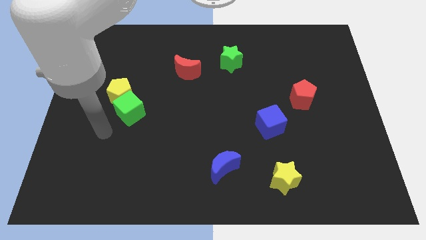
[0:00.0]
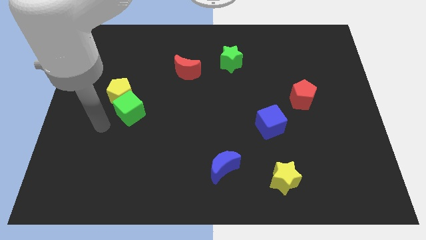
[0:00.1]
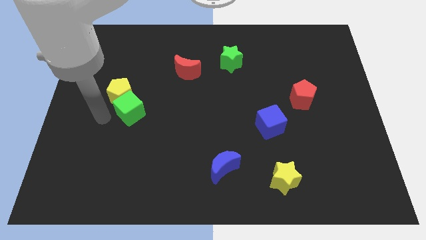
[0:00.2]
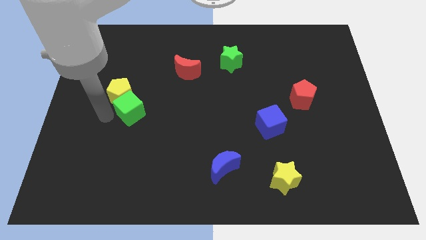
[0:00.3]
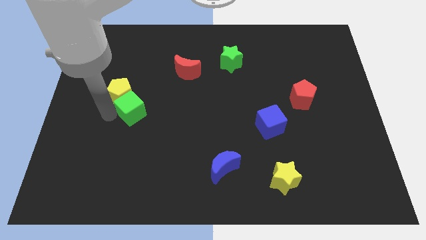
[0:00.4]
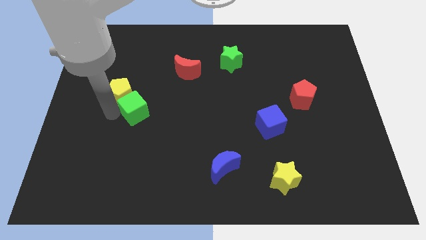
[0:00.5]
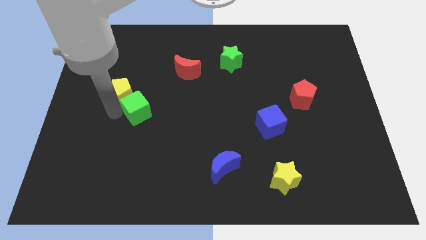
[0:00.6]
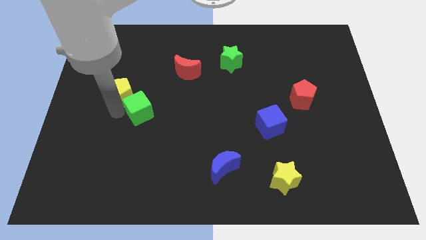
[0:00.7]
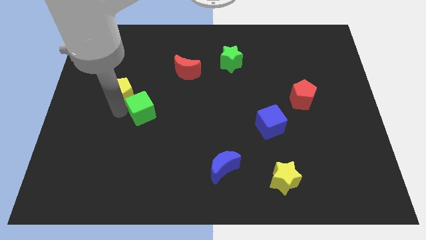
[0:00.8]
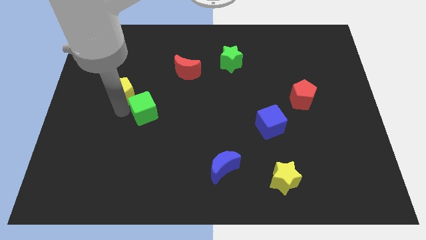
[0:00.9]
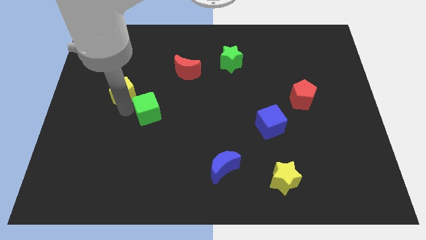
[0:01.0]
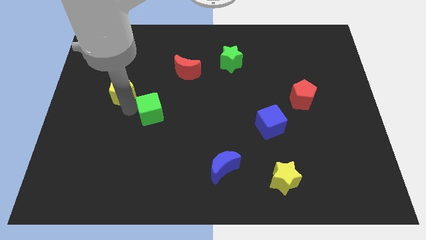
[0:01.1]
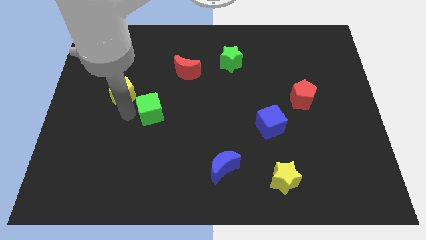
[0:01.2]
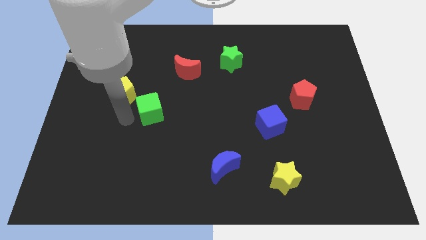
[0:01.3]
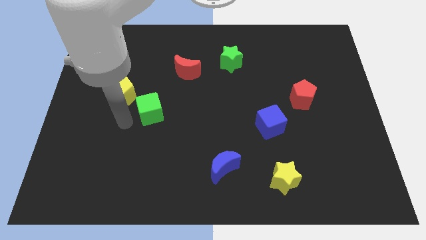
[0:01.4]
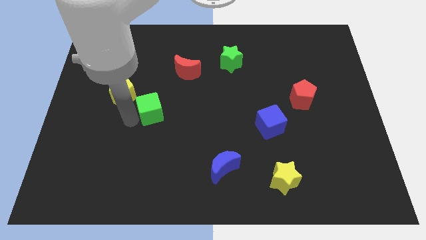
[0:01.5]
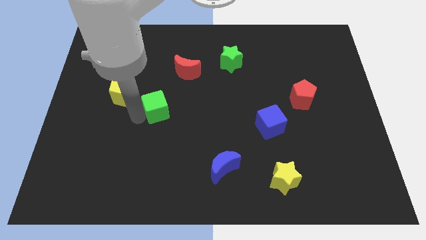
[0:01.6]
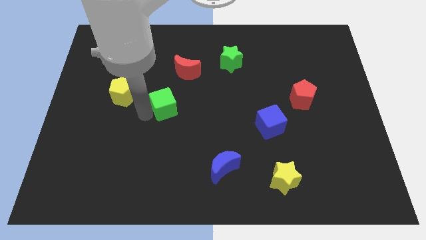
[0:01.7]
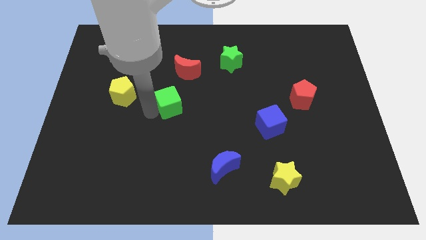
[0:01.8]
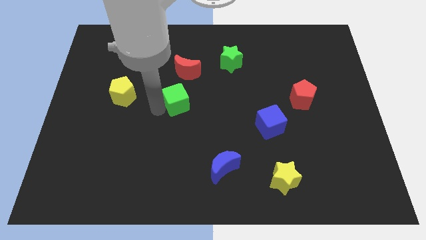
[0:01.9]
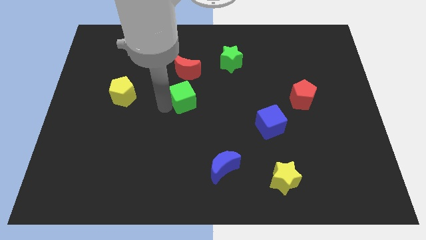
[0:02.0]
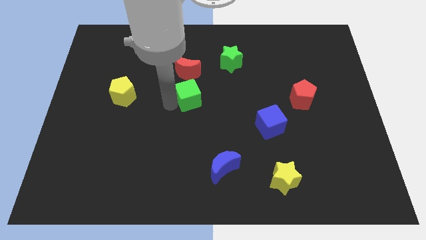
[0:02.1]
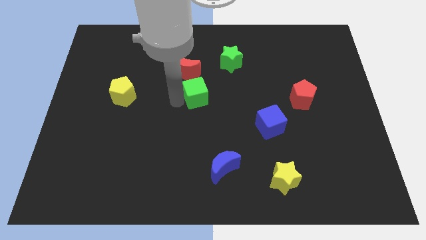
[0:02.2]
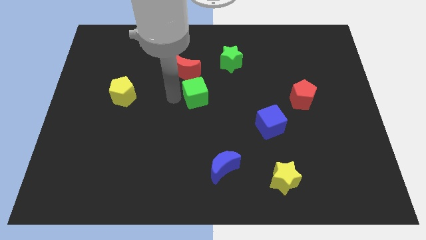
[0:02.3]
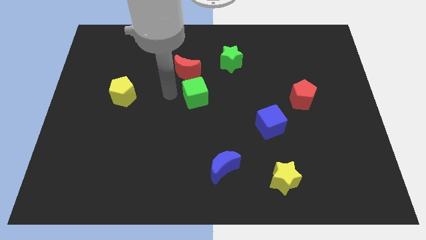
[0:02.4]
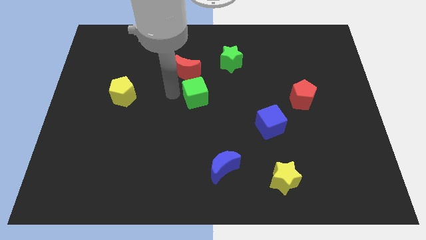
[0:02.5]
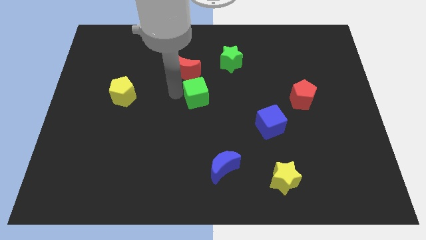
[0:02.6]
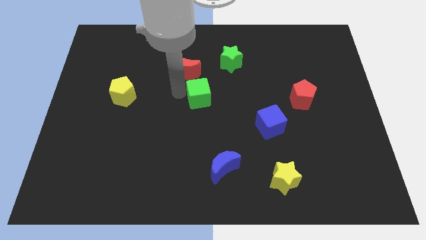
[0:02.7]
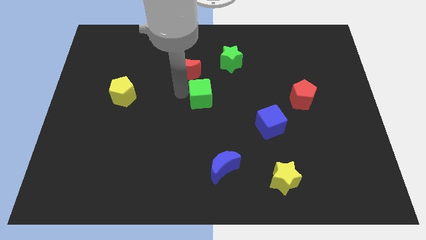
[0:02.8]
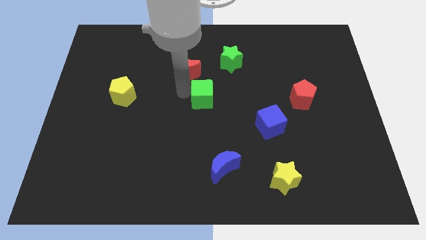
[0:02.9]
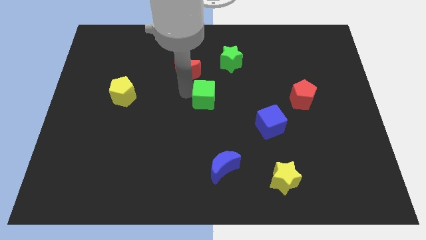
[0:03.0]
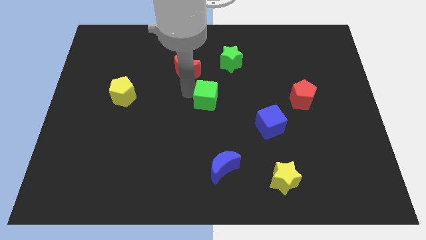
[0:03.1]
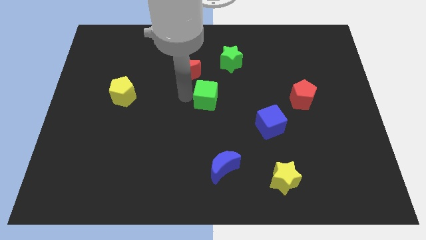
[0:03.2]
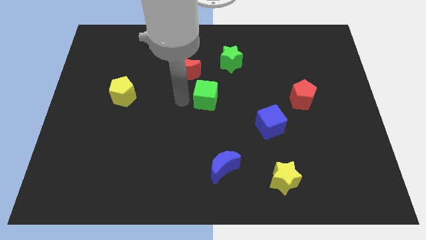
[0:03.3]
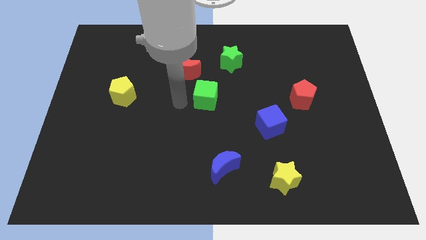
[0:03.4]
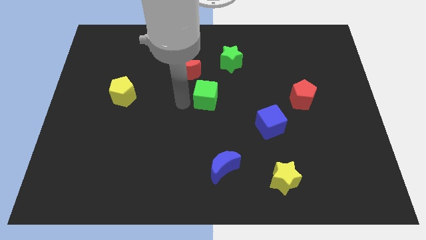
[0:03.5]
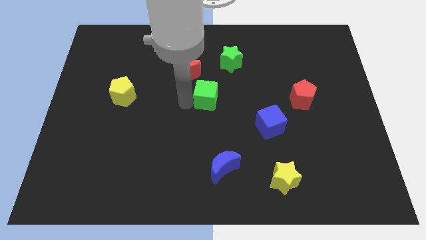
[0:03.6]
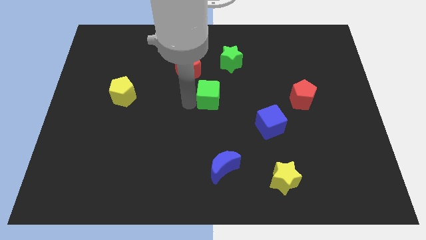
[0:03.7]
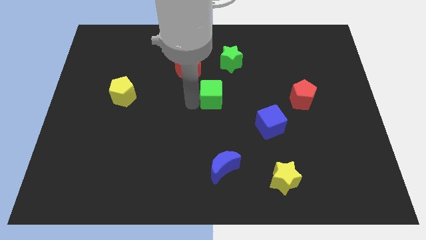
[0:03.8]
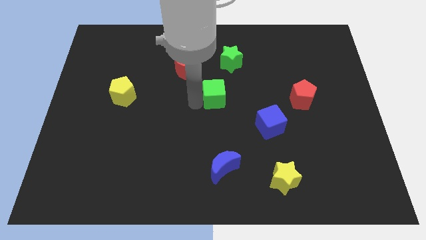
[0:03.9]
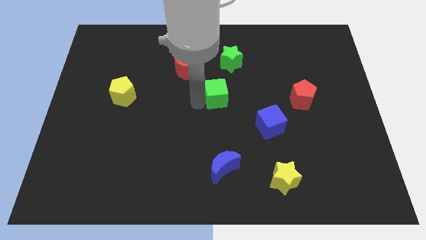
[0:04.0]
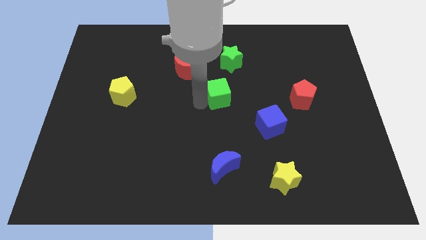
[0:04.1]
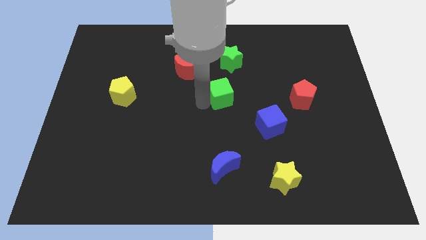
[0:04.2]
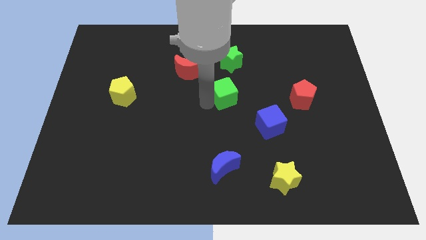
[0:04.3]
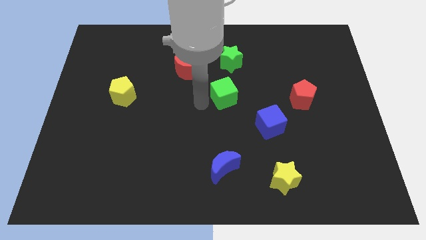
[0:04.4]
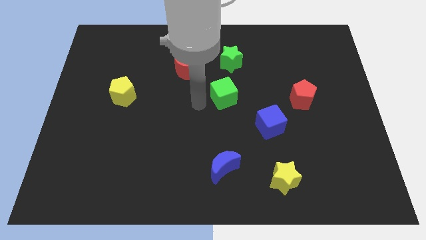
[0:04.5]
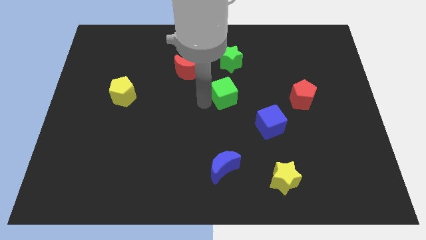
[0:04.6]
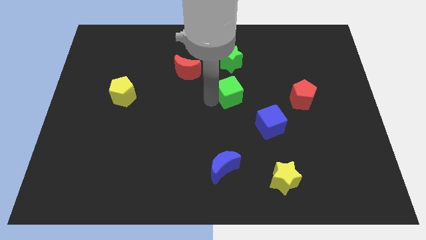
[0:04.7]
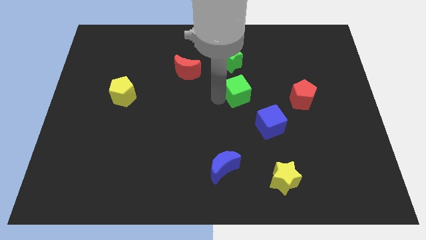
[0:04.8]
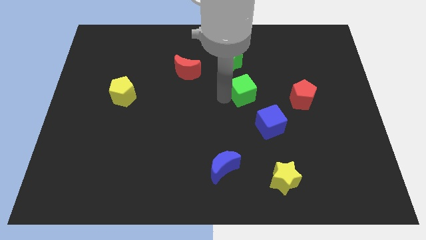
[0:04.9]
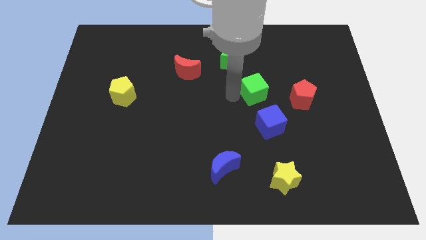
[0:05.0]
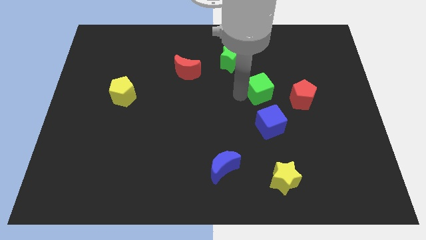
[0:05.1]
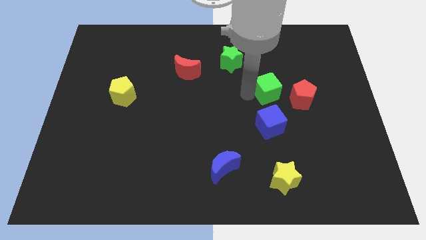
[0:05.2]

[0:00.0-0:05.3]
slide the green cube diagonally up and to the left of the red pentagon

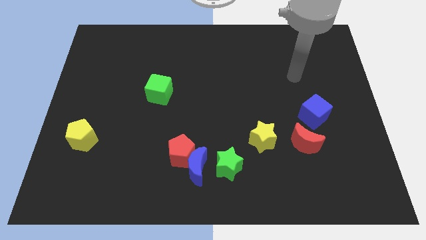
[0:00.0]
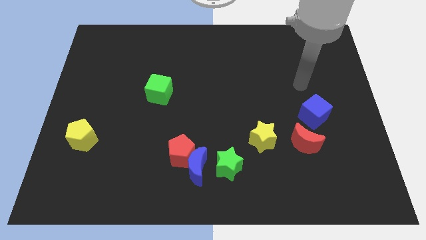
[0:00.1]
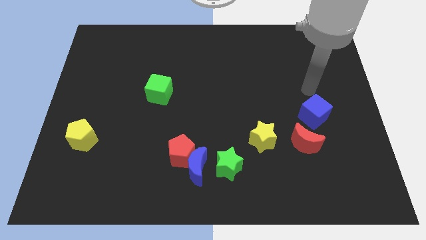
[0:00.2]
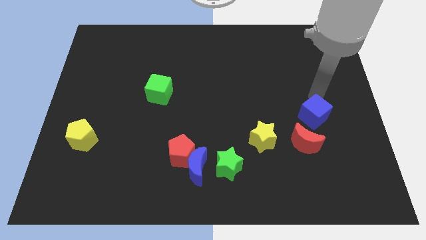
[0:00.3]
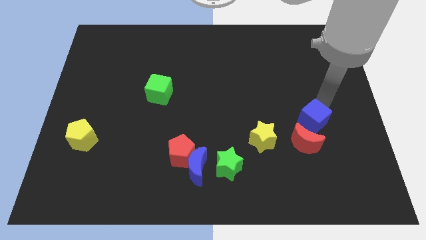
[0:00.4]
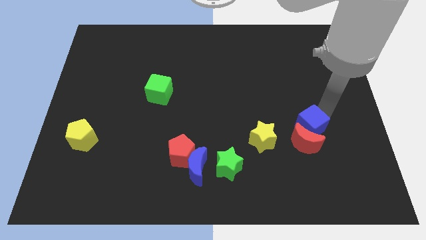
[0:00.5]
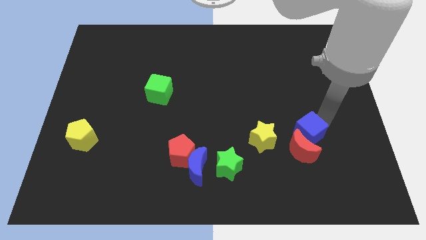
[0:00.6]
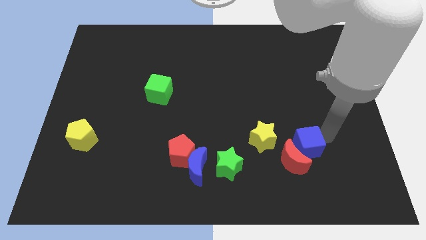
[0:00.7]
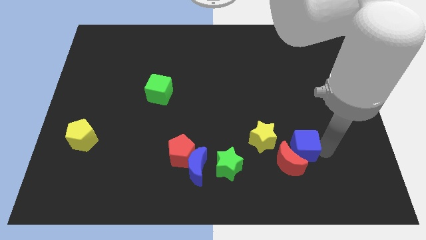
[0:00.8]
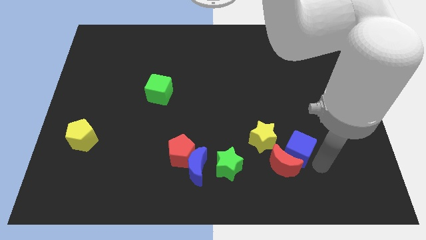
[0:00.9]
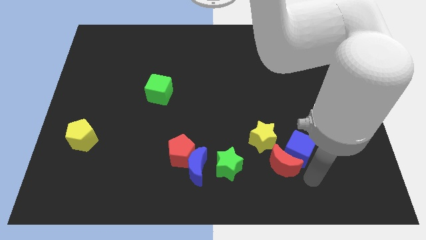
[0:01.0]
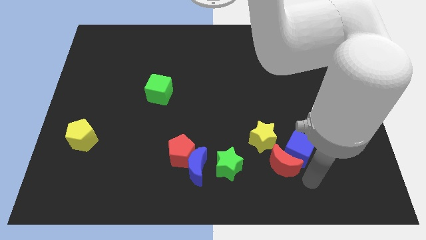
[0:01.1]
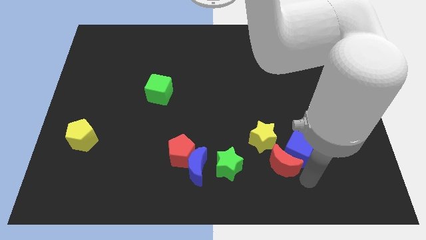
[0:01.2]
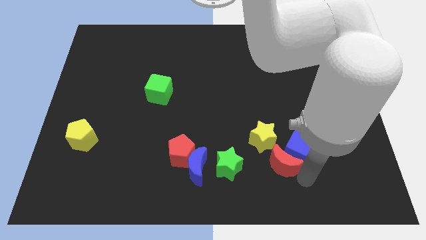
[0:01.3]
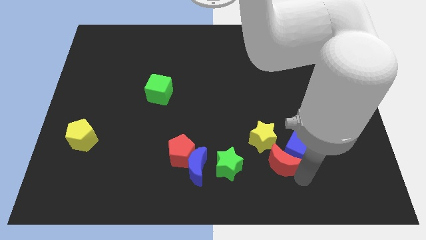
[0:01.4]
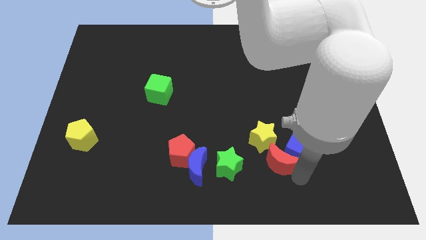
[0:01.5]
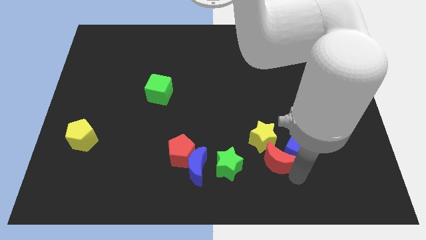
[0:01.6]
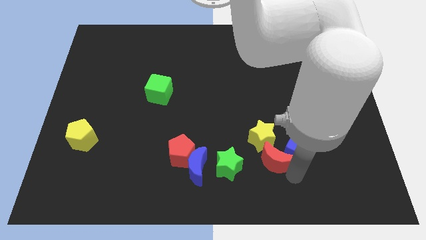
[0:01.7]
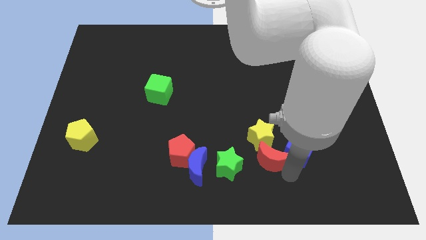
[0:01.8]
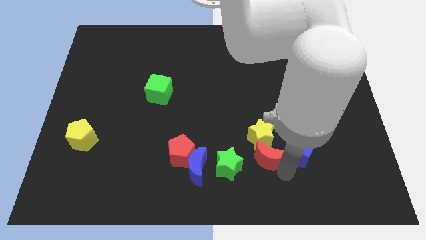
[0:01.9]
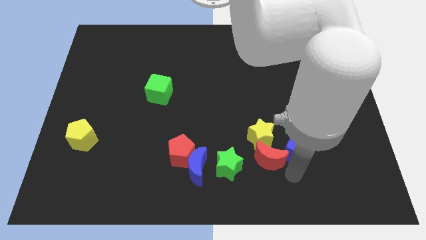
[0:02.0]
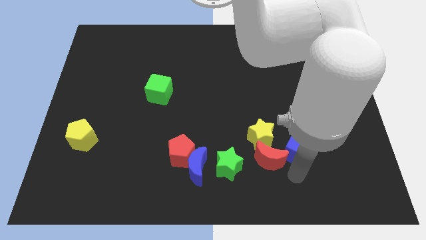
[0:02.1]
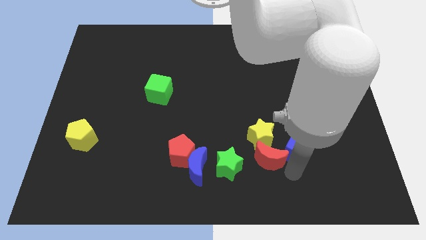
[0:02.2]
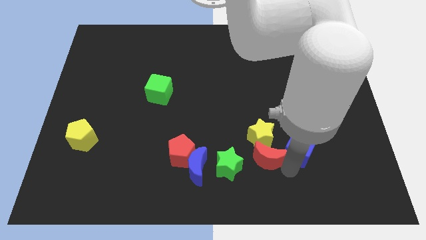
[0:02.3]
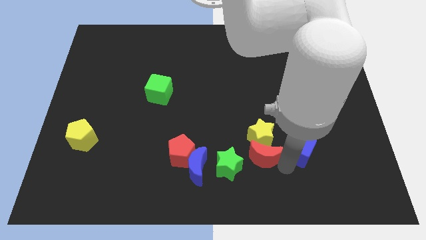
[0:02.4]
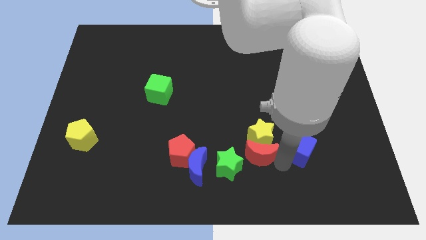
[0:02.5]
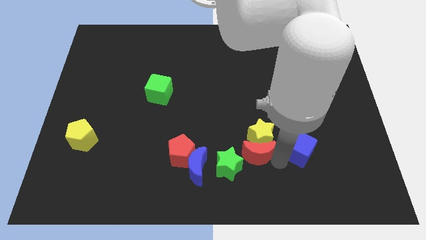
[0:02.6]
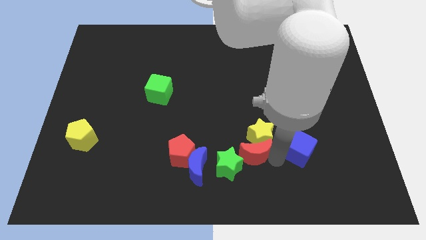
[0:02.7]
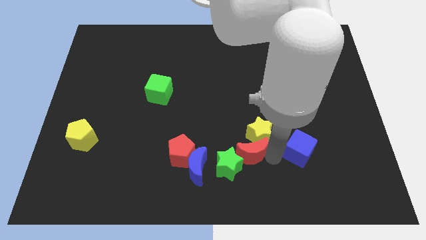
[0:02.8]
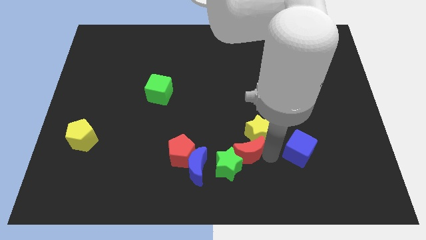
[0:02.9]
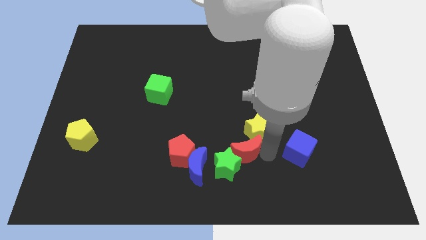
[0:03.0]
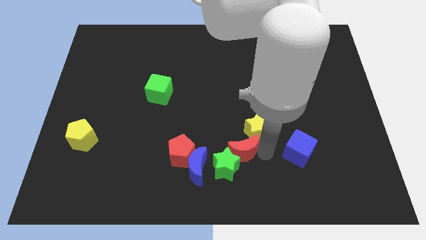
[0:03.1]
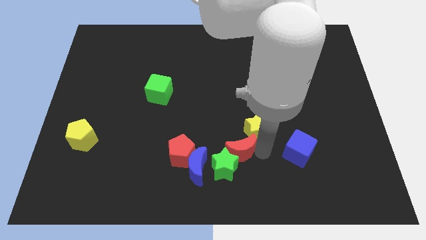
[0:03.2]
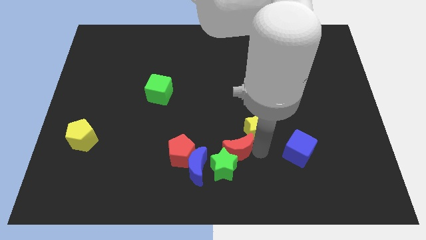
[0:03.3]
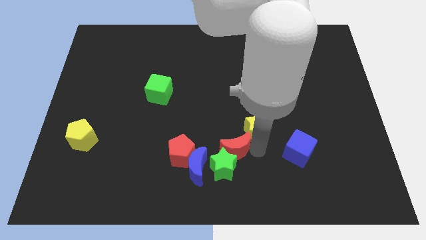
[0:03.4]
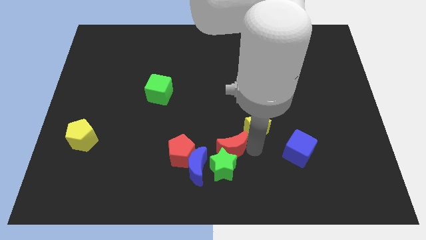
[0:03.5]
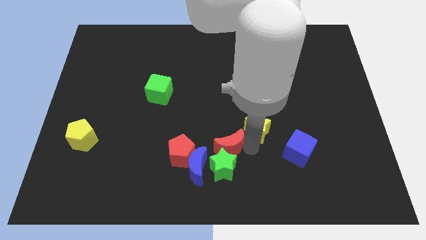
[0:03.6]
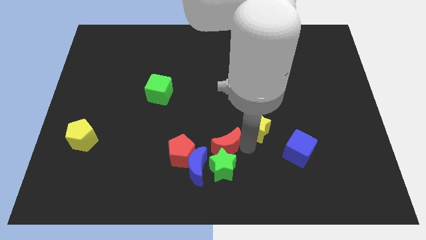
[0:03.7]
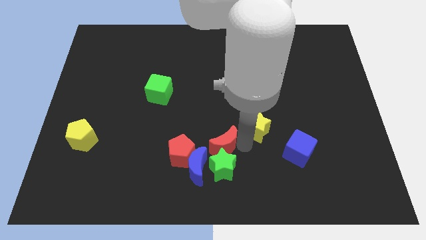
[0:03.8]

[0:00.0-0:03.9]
move the red moon to the top right of the red pentagon
